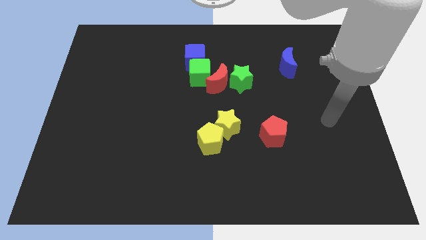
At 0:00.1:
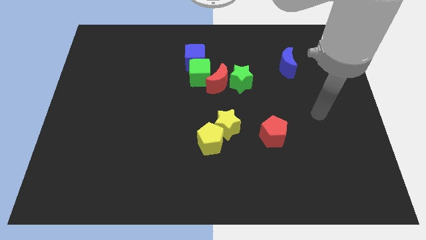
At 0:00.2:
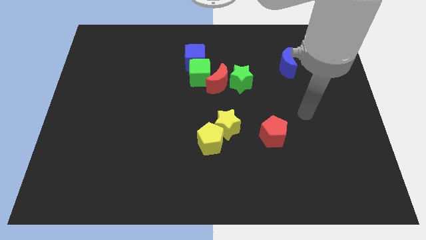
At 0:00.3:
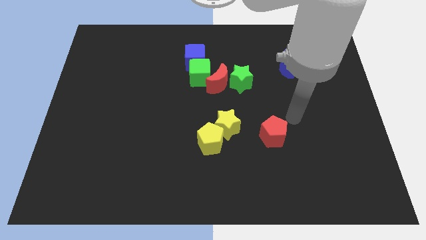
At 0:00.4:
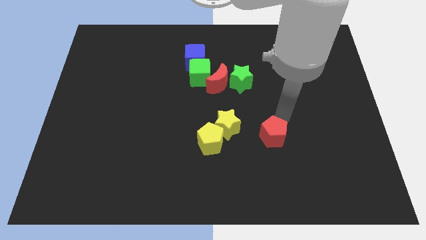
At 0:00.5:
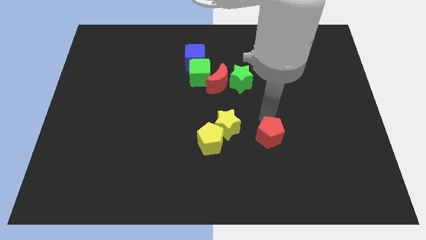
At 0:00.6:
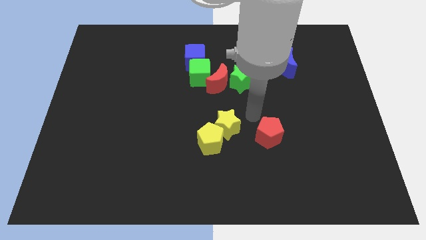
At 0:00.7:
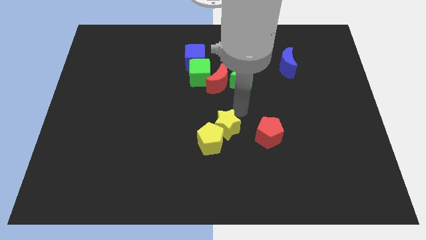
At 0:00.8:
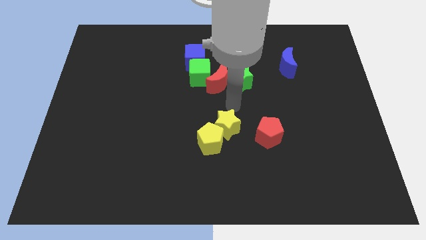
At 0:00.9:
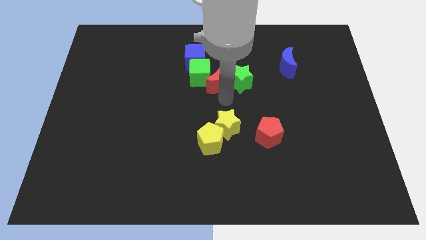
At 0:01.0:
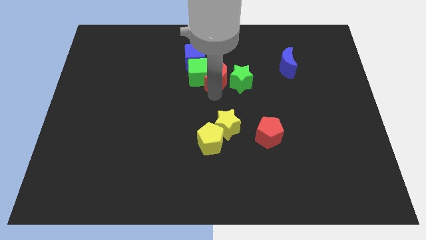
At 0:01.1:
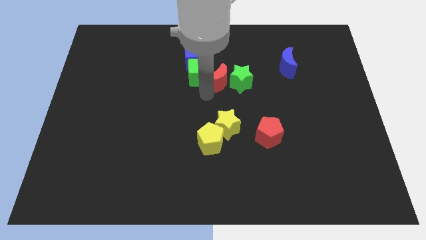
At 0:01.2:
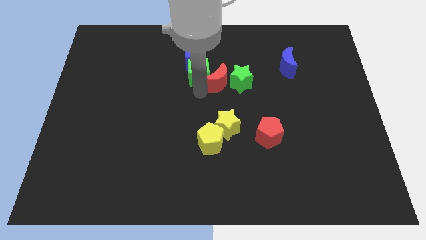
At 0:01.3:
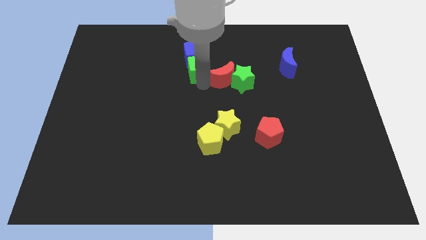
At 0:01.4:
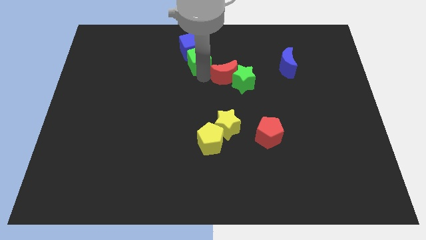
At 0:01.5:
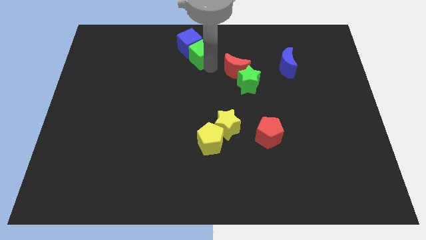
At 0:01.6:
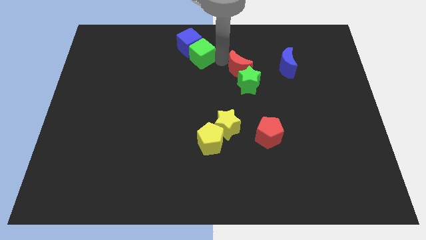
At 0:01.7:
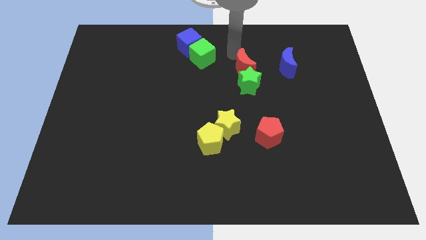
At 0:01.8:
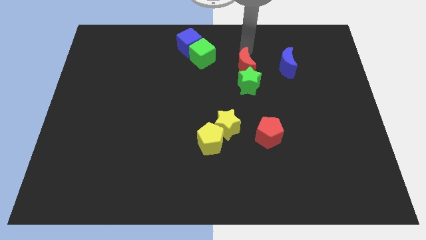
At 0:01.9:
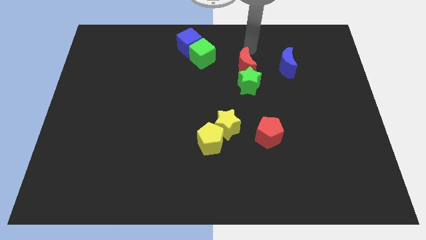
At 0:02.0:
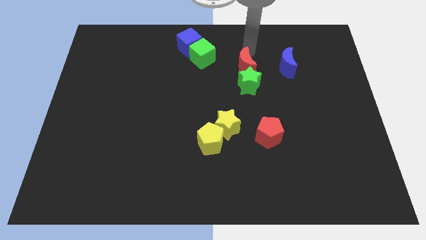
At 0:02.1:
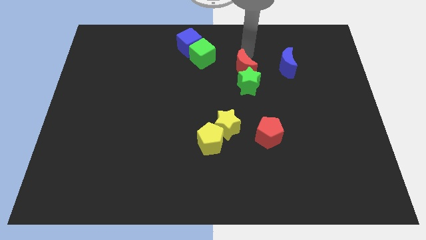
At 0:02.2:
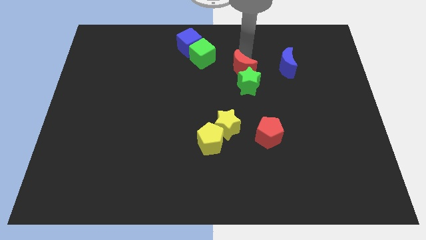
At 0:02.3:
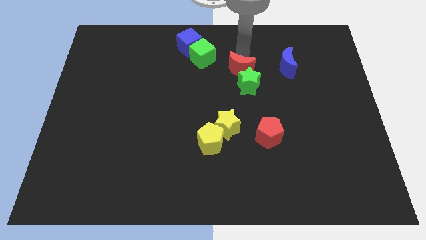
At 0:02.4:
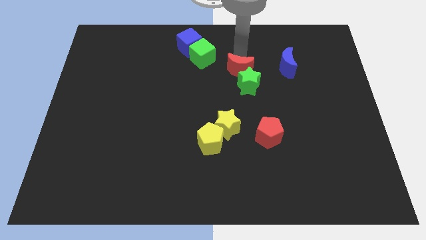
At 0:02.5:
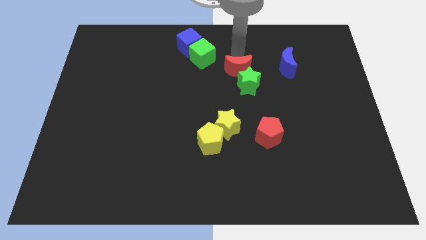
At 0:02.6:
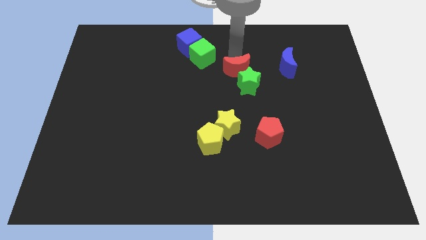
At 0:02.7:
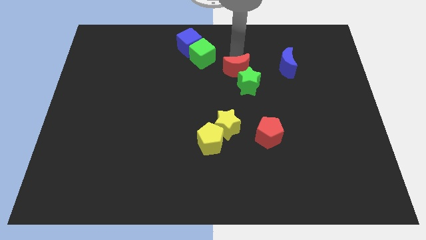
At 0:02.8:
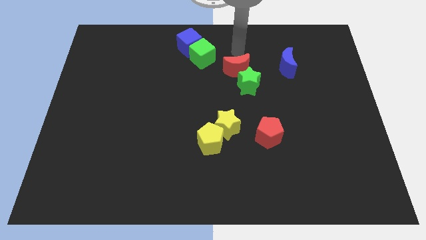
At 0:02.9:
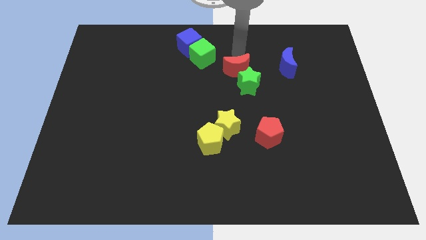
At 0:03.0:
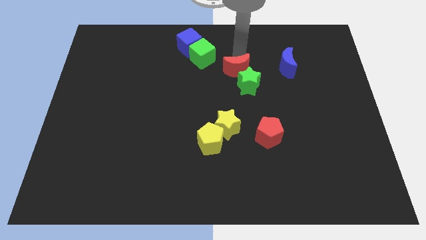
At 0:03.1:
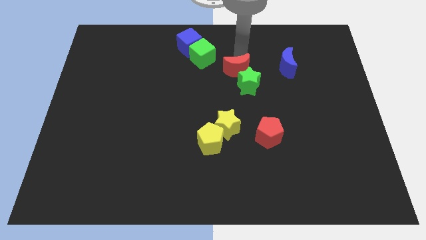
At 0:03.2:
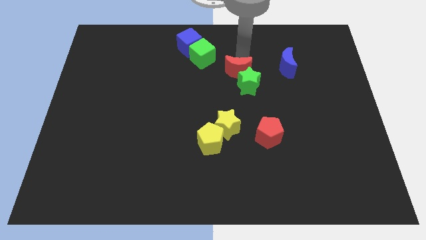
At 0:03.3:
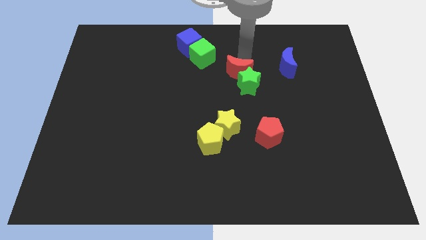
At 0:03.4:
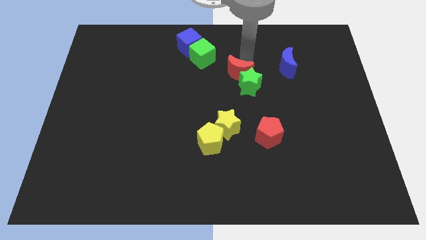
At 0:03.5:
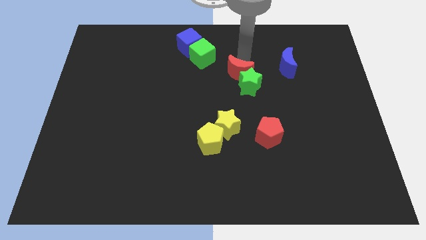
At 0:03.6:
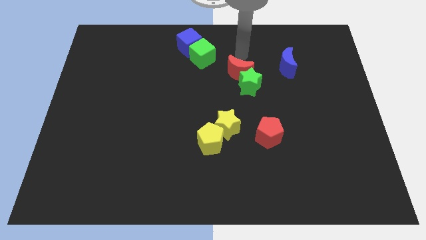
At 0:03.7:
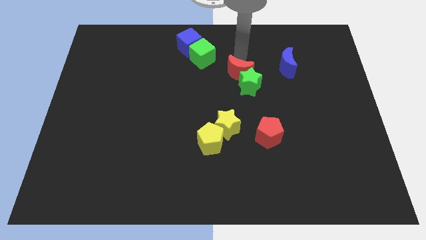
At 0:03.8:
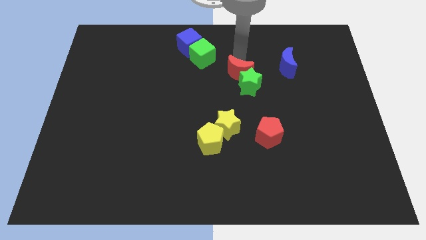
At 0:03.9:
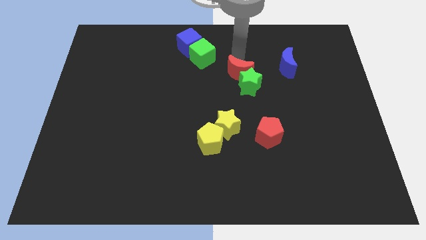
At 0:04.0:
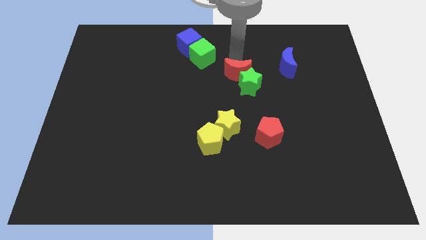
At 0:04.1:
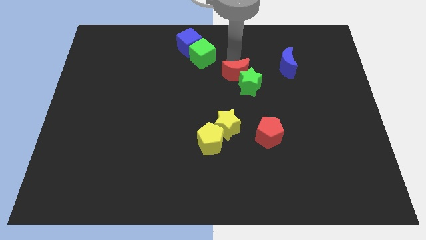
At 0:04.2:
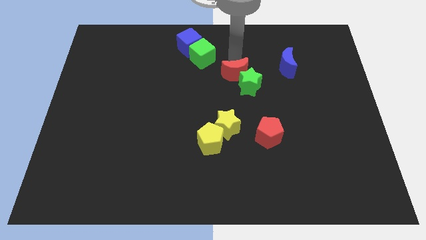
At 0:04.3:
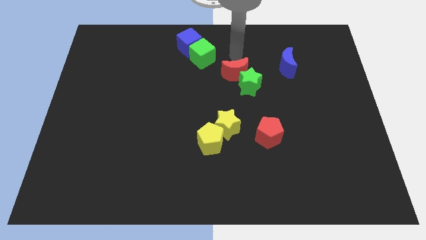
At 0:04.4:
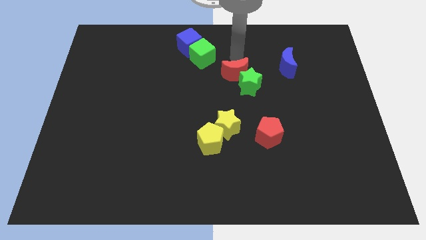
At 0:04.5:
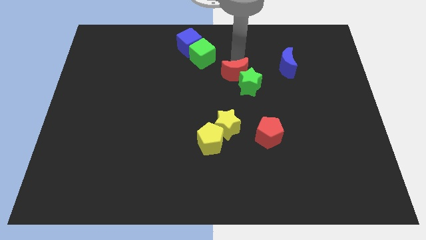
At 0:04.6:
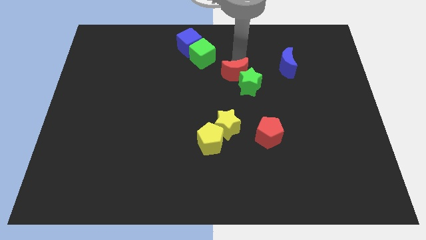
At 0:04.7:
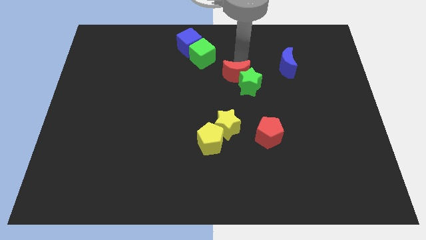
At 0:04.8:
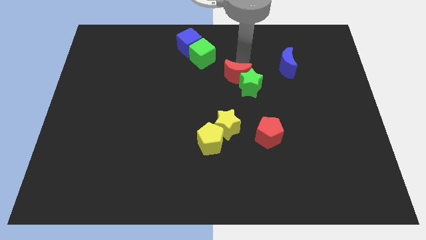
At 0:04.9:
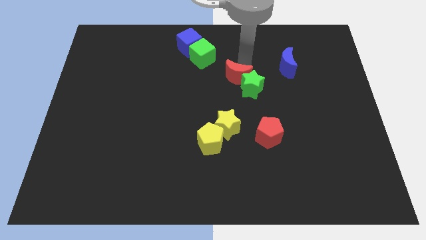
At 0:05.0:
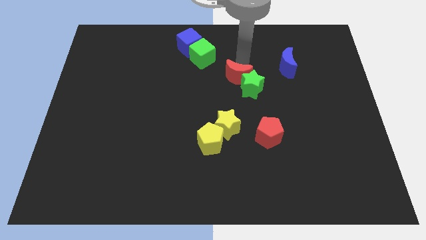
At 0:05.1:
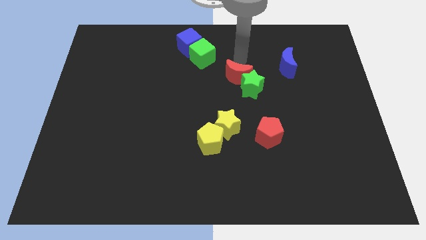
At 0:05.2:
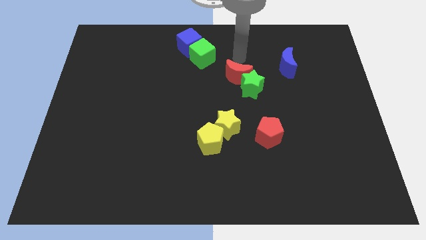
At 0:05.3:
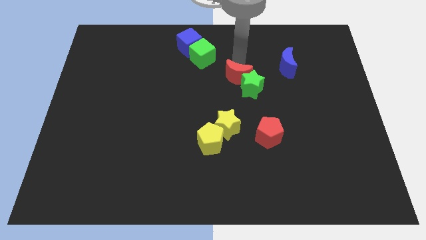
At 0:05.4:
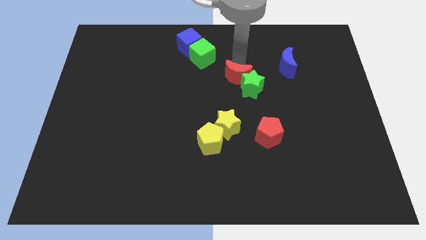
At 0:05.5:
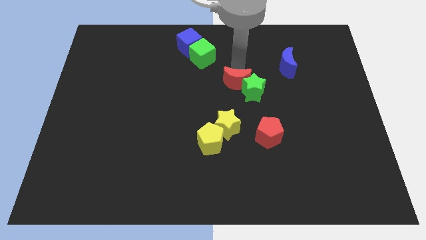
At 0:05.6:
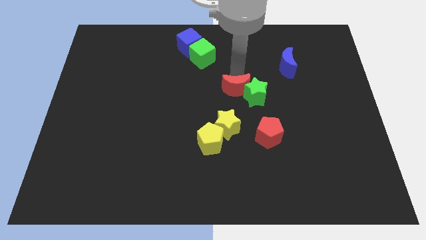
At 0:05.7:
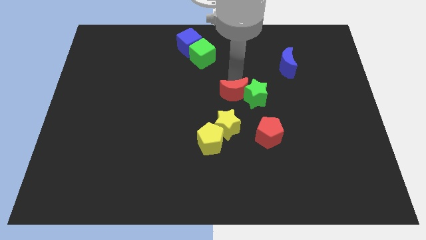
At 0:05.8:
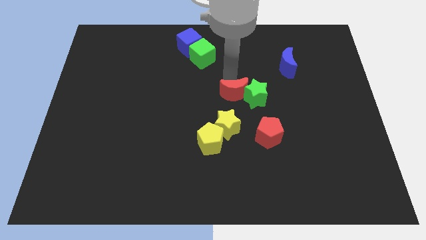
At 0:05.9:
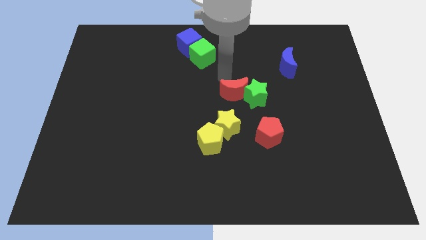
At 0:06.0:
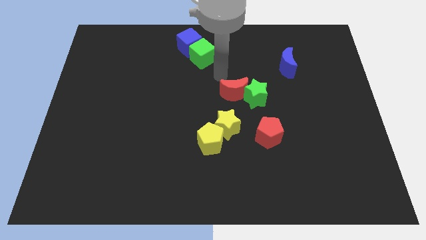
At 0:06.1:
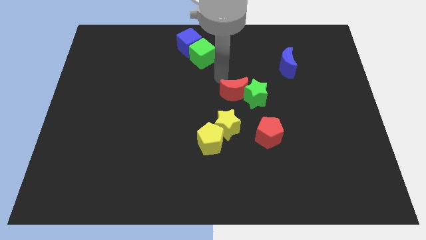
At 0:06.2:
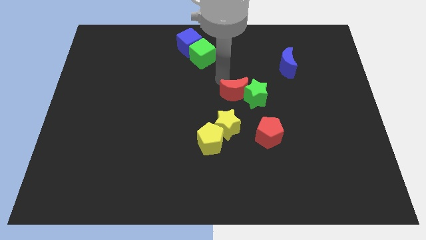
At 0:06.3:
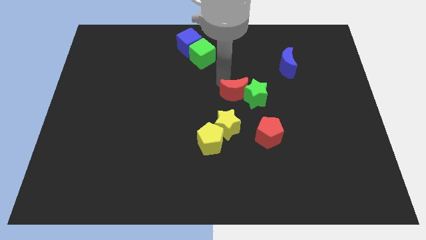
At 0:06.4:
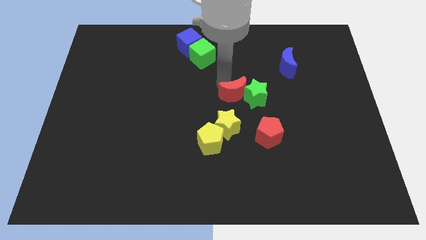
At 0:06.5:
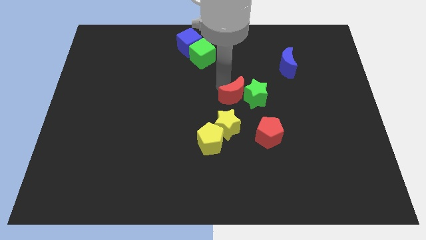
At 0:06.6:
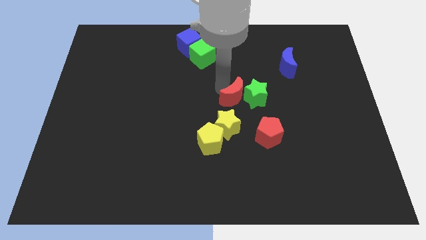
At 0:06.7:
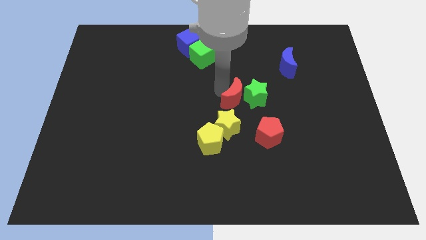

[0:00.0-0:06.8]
move the red moon to the top right side of the yellow star
